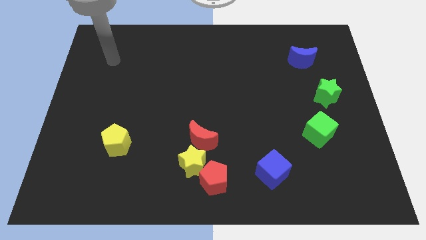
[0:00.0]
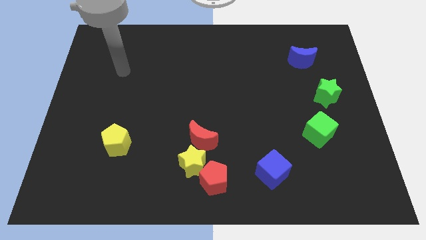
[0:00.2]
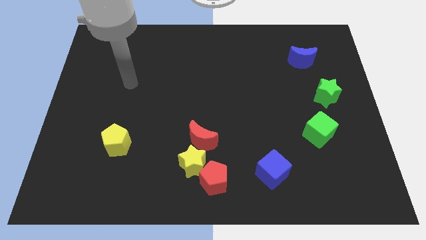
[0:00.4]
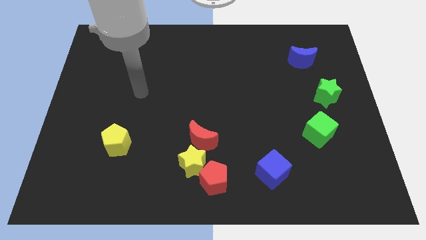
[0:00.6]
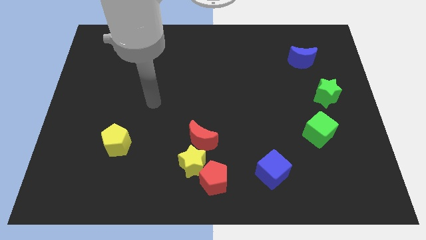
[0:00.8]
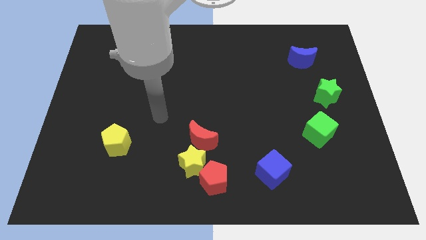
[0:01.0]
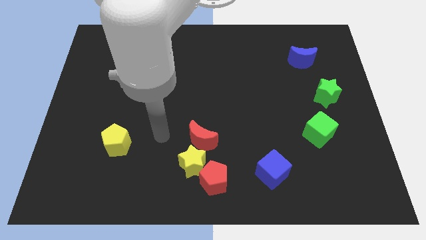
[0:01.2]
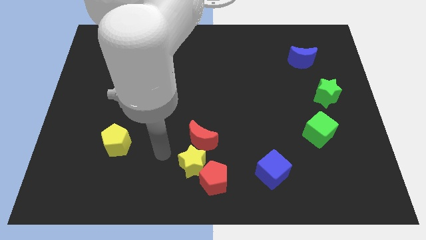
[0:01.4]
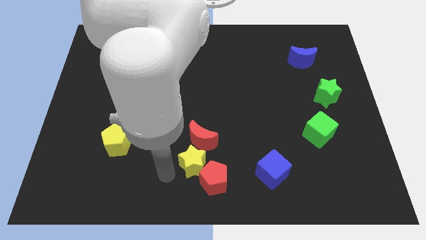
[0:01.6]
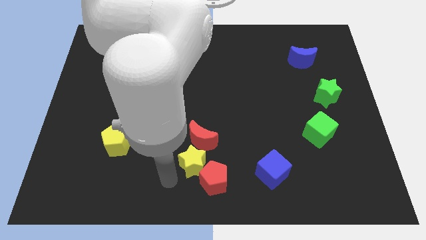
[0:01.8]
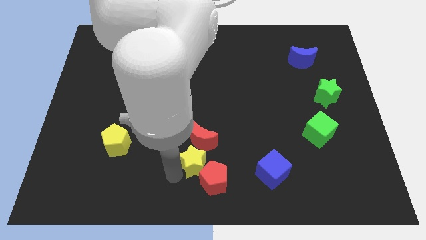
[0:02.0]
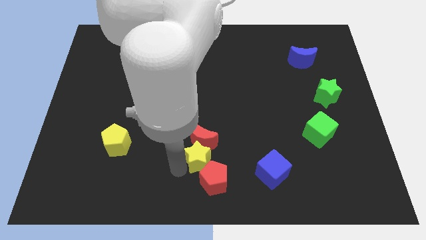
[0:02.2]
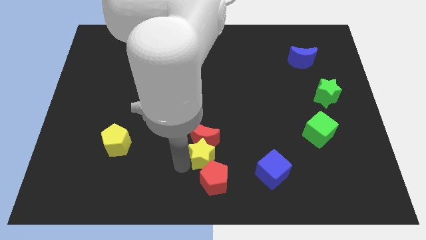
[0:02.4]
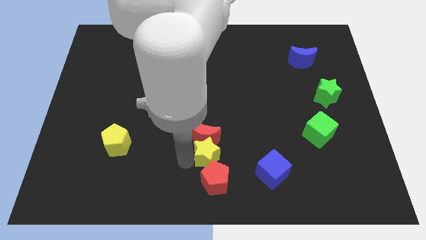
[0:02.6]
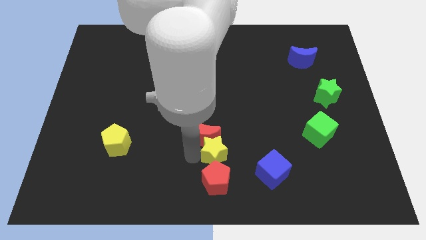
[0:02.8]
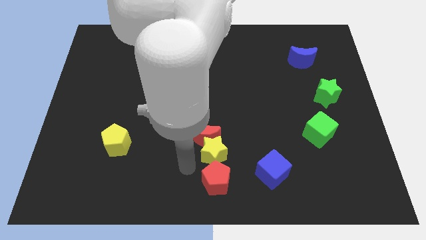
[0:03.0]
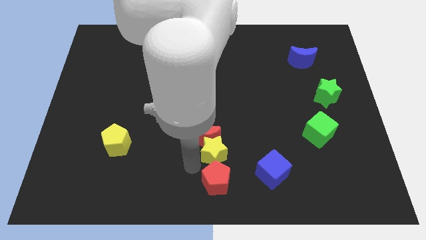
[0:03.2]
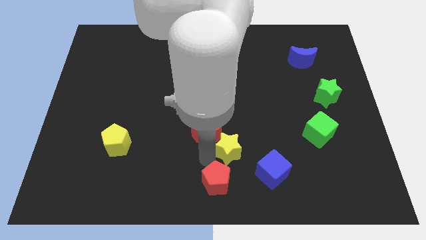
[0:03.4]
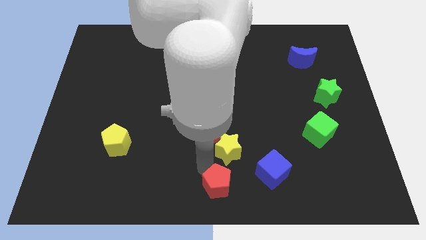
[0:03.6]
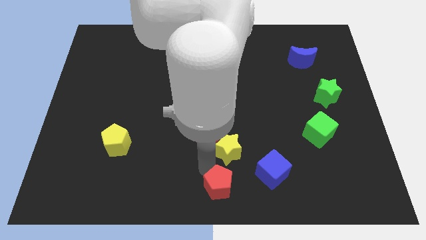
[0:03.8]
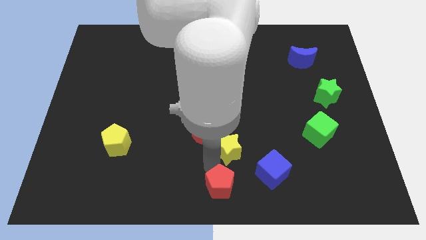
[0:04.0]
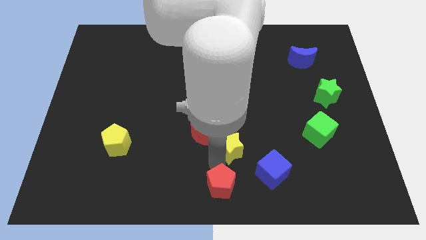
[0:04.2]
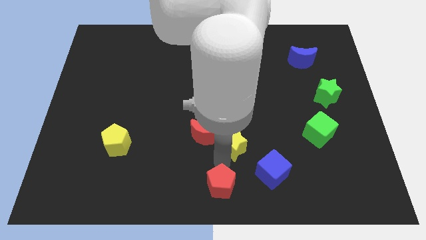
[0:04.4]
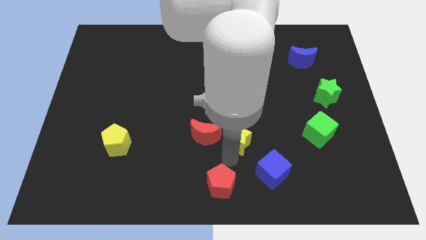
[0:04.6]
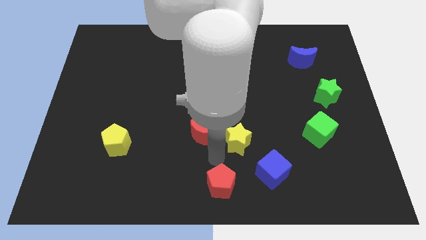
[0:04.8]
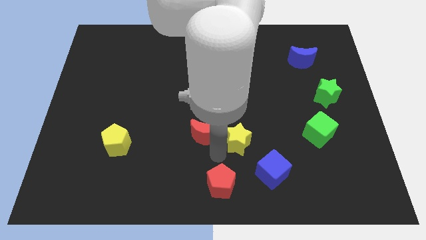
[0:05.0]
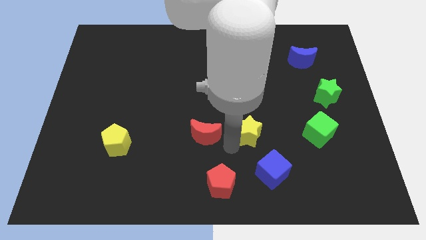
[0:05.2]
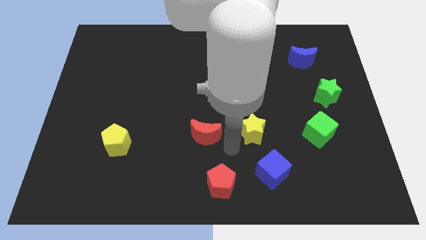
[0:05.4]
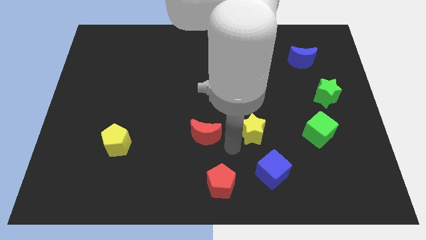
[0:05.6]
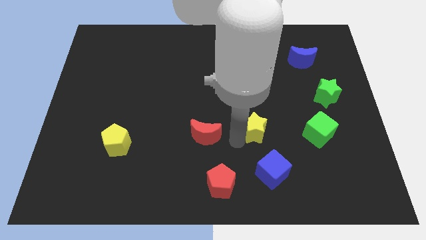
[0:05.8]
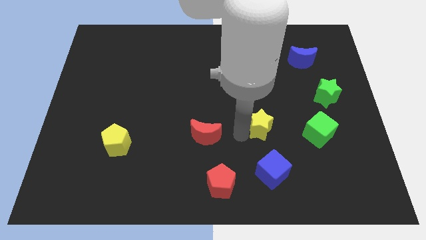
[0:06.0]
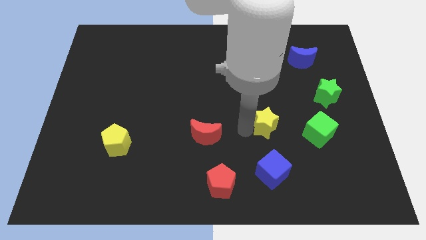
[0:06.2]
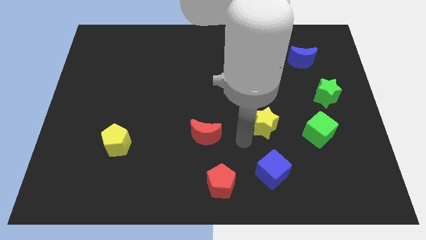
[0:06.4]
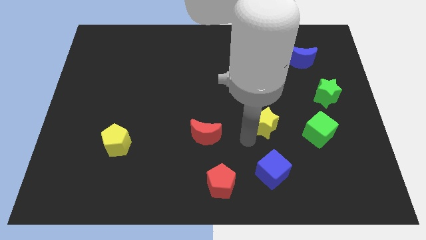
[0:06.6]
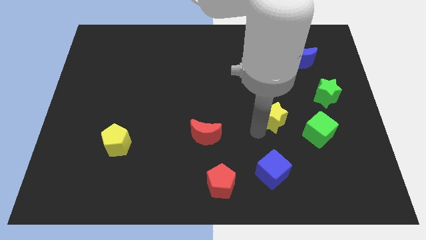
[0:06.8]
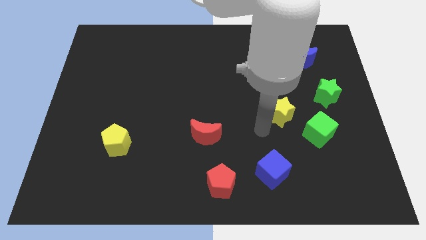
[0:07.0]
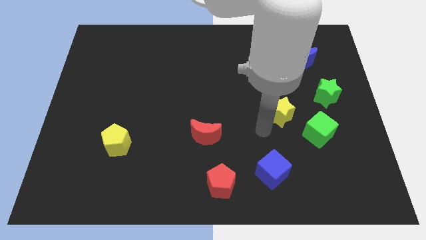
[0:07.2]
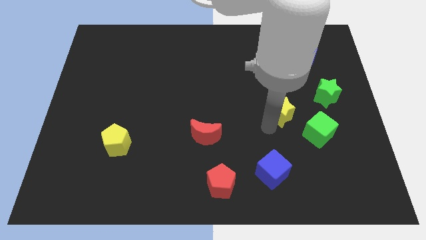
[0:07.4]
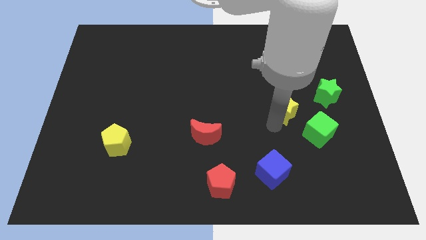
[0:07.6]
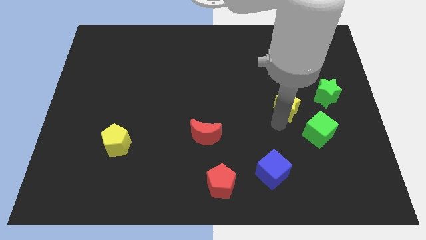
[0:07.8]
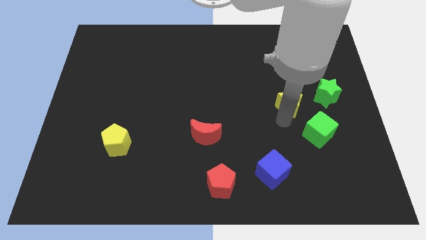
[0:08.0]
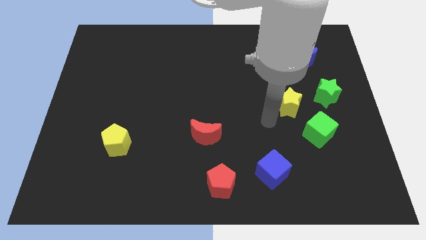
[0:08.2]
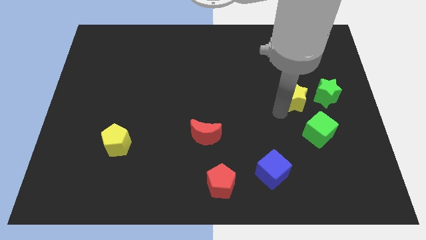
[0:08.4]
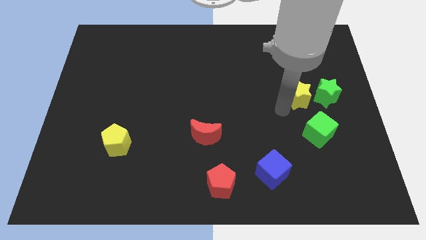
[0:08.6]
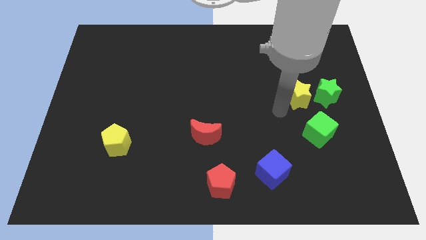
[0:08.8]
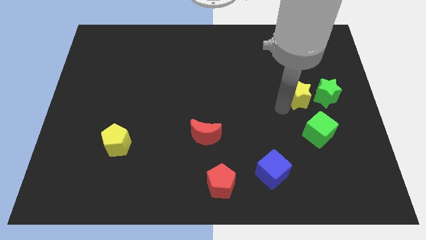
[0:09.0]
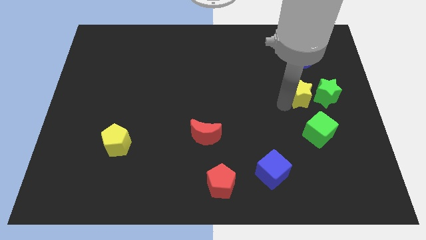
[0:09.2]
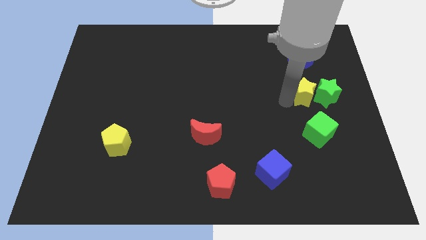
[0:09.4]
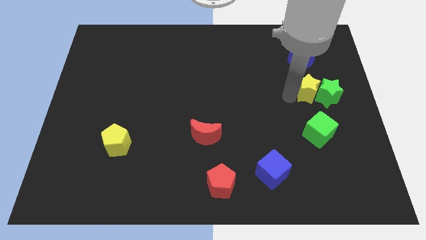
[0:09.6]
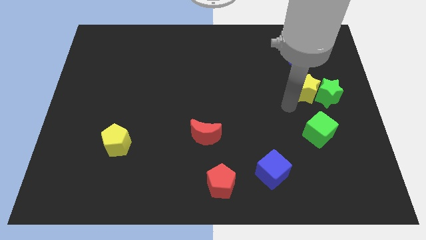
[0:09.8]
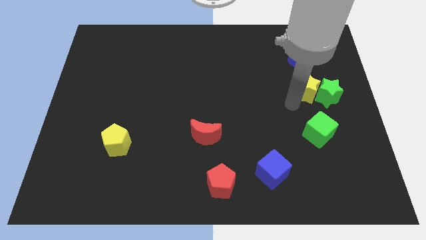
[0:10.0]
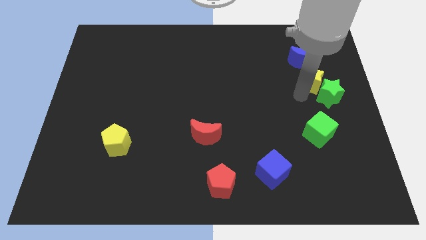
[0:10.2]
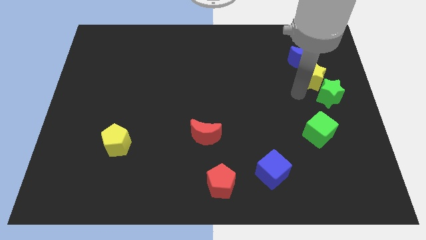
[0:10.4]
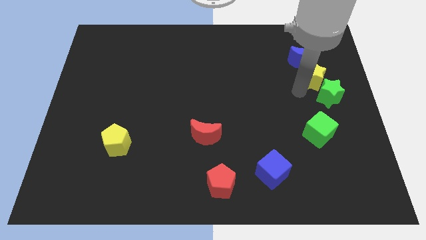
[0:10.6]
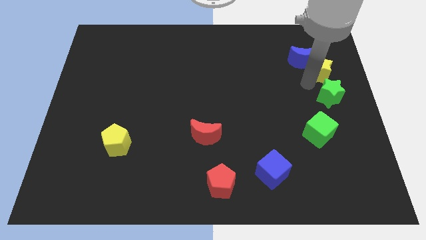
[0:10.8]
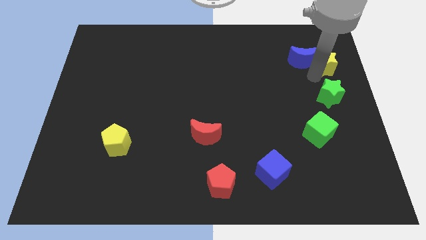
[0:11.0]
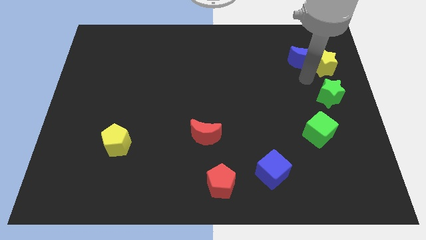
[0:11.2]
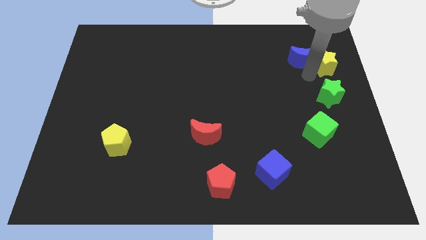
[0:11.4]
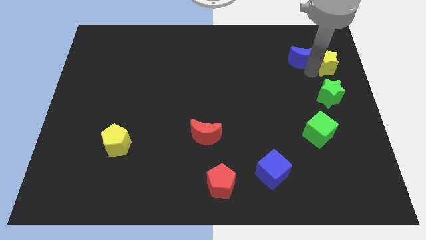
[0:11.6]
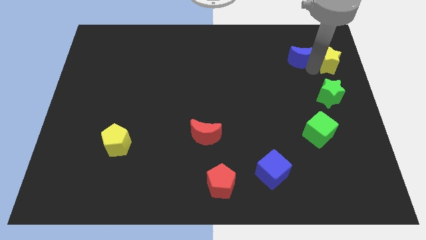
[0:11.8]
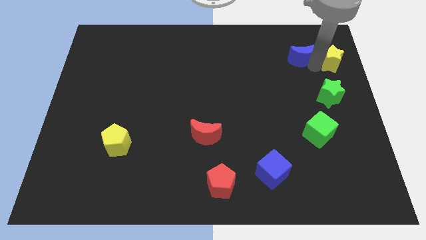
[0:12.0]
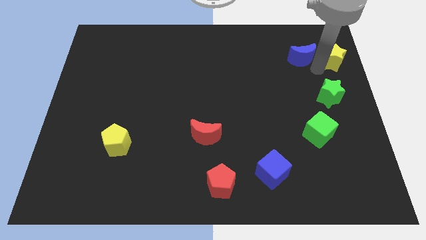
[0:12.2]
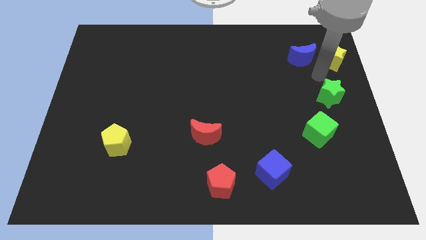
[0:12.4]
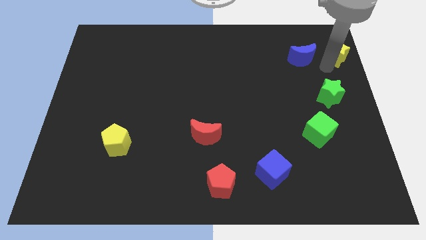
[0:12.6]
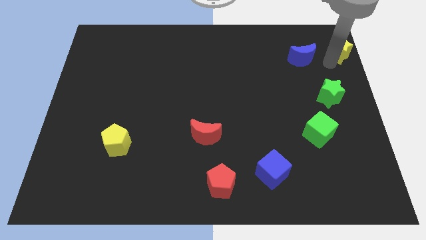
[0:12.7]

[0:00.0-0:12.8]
slide the yellow star to the top right
